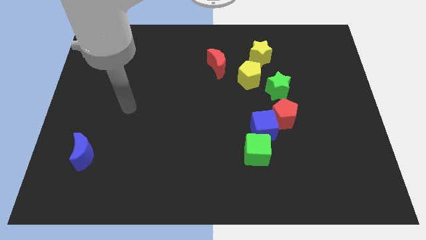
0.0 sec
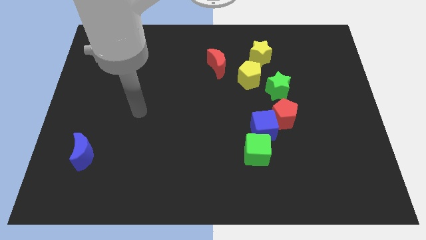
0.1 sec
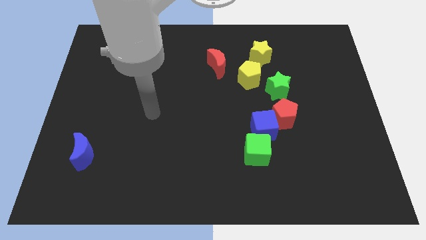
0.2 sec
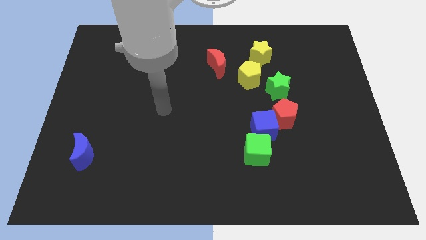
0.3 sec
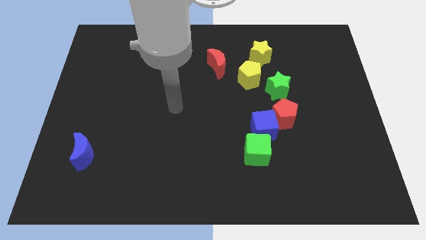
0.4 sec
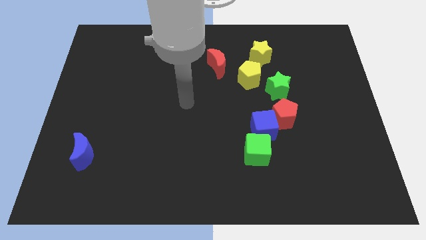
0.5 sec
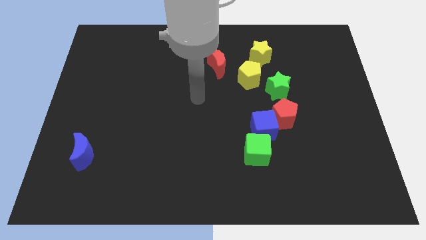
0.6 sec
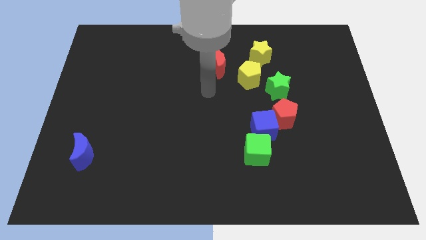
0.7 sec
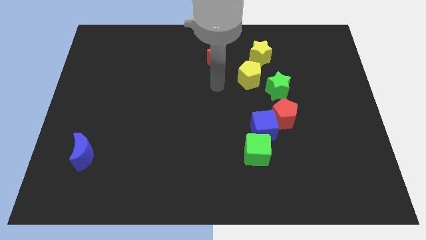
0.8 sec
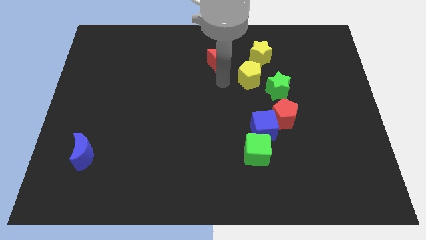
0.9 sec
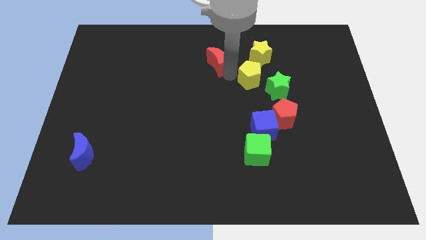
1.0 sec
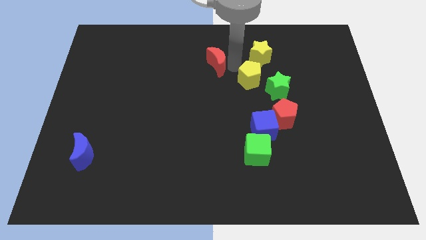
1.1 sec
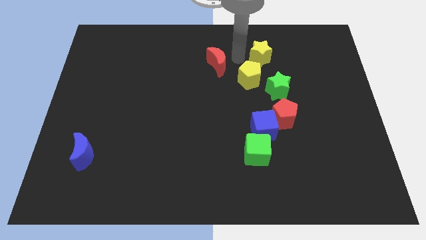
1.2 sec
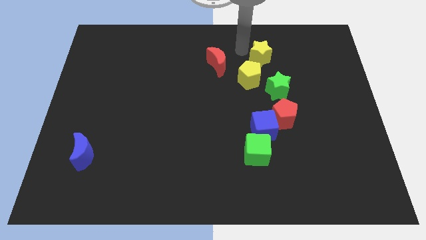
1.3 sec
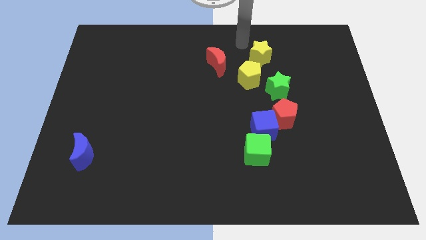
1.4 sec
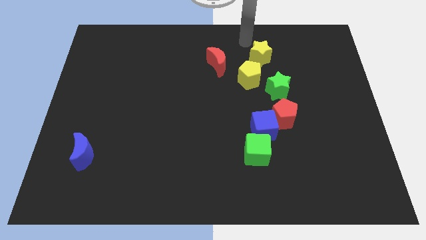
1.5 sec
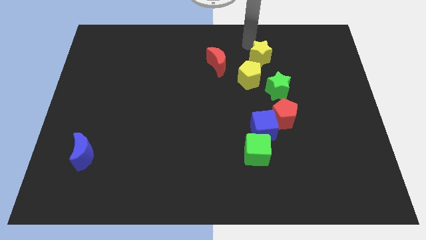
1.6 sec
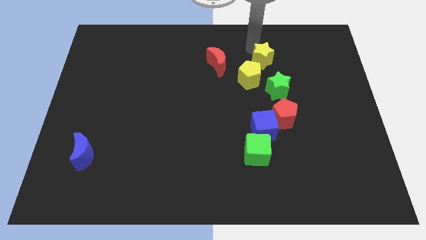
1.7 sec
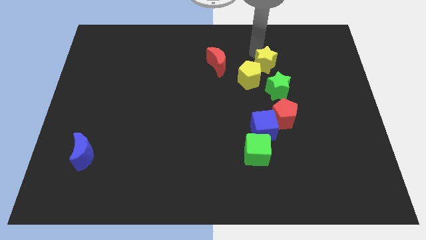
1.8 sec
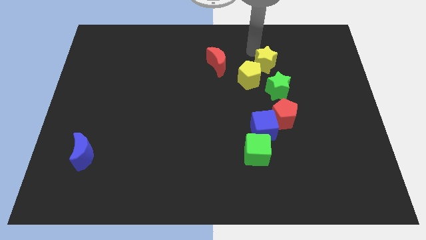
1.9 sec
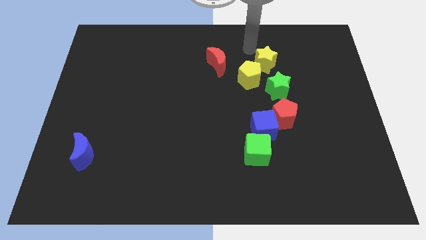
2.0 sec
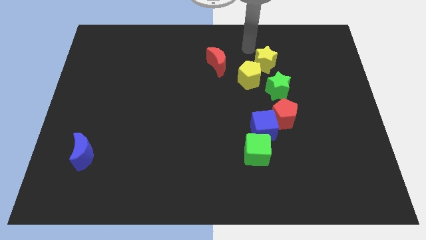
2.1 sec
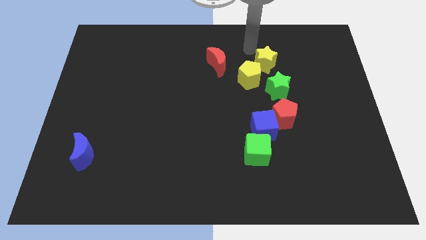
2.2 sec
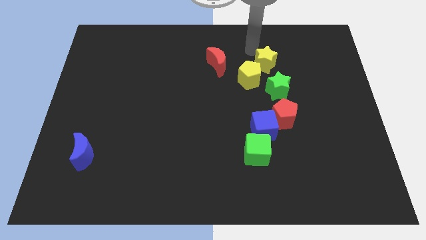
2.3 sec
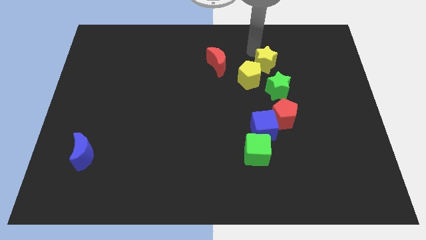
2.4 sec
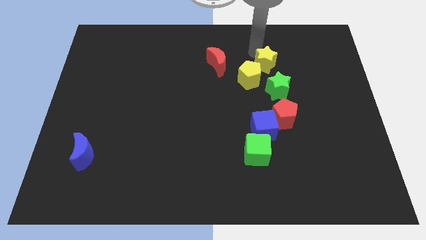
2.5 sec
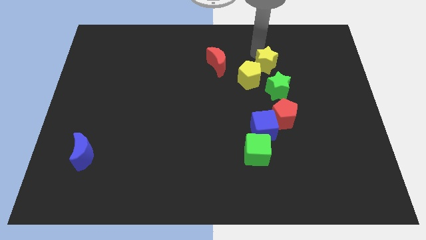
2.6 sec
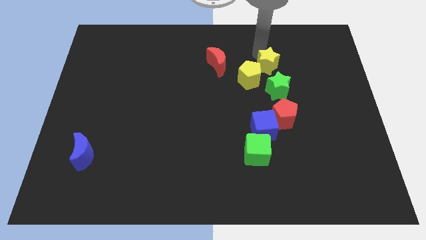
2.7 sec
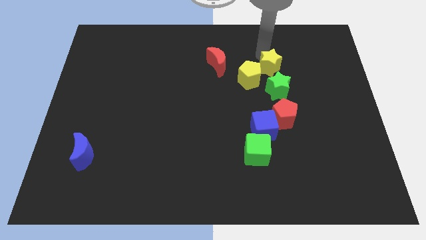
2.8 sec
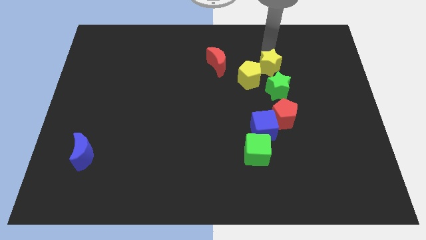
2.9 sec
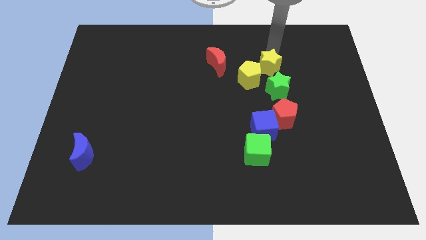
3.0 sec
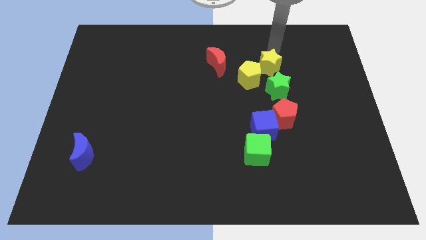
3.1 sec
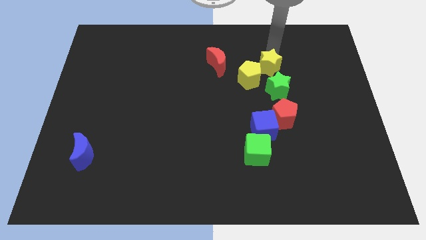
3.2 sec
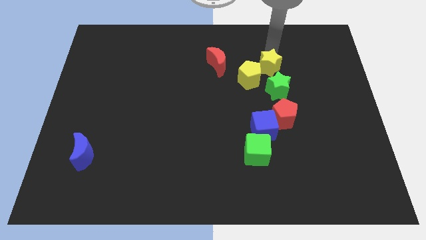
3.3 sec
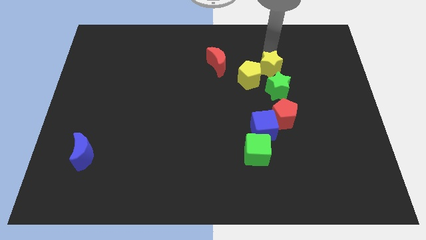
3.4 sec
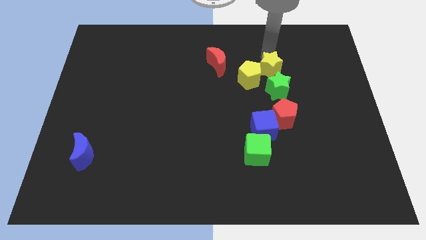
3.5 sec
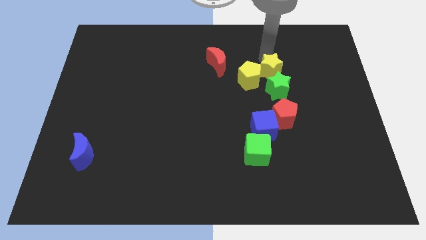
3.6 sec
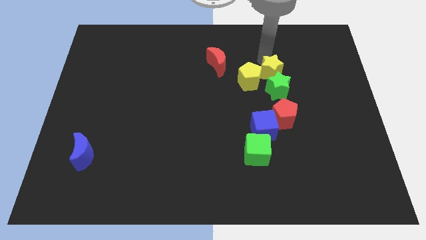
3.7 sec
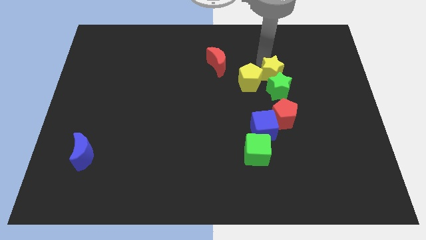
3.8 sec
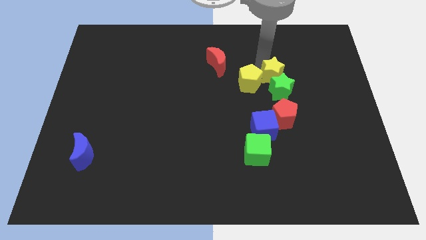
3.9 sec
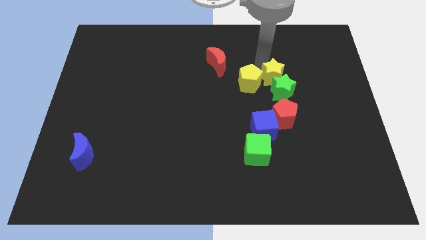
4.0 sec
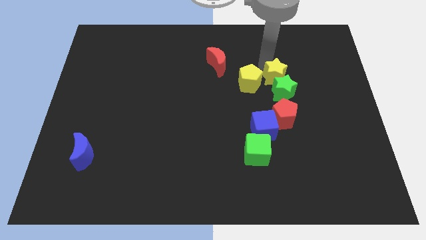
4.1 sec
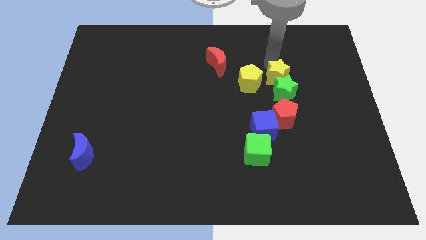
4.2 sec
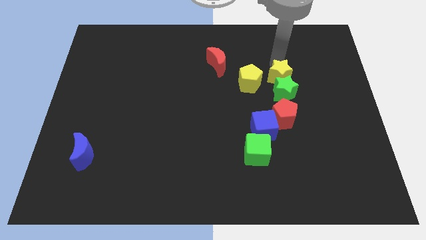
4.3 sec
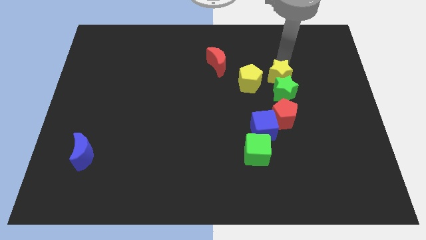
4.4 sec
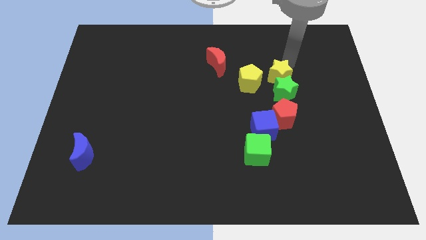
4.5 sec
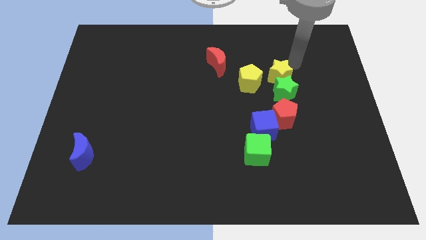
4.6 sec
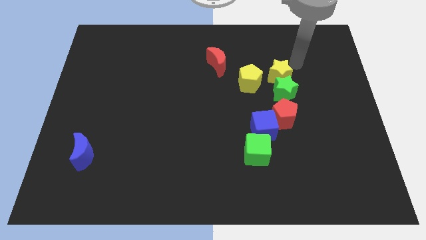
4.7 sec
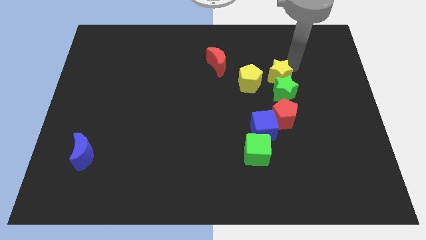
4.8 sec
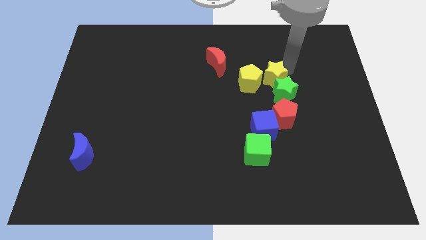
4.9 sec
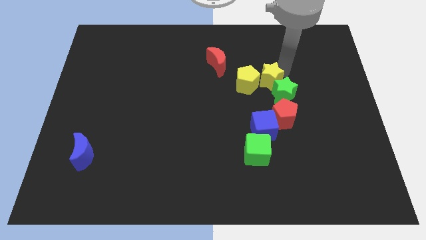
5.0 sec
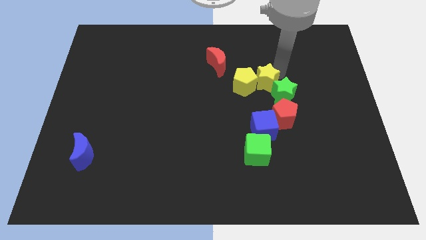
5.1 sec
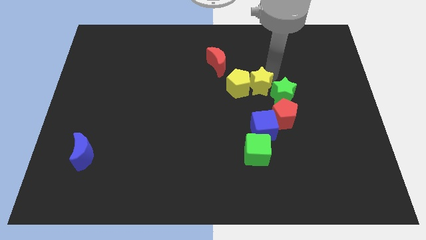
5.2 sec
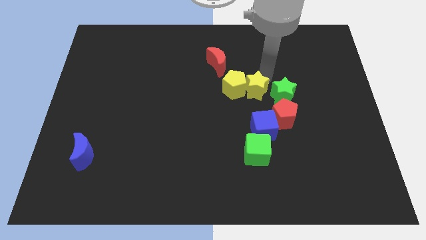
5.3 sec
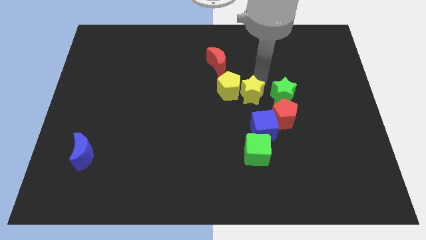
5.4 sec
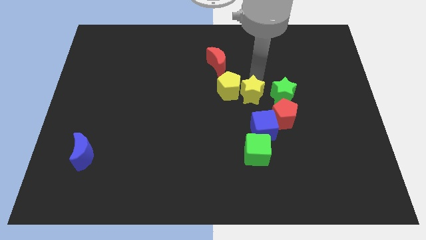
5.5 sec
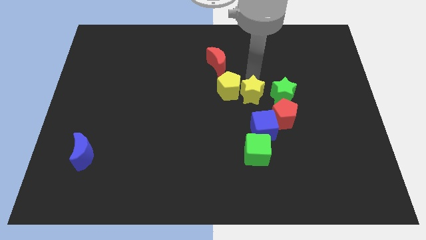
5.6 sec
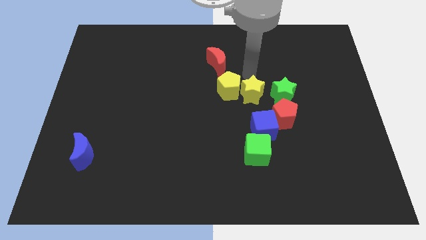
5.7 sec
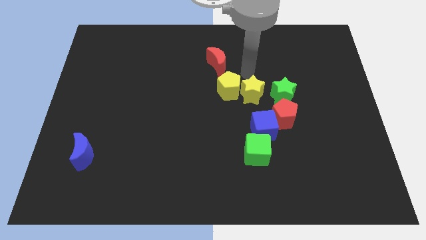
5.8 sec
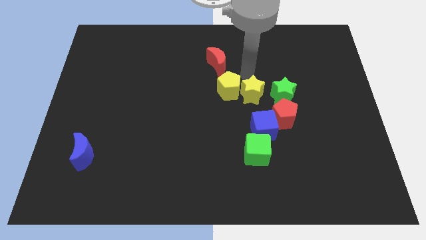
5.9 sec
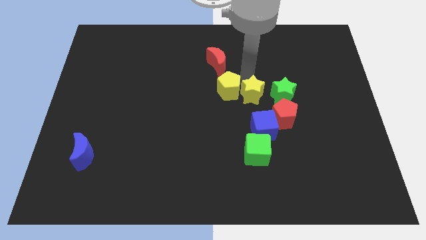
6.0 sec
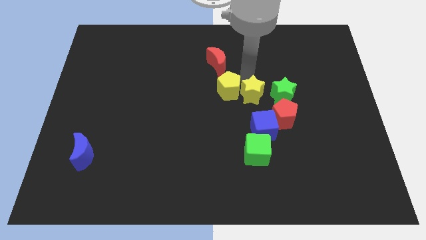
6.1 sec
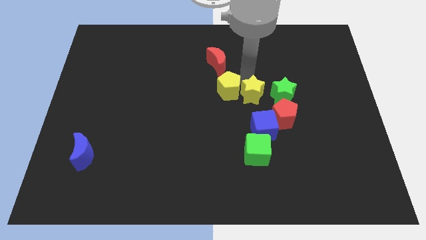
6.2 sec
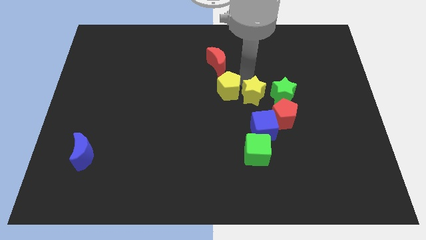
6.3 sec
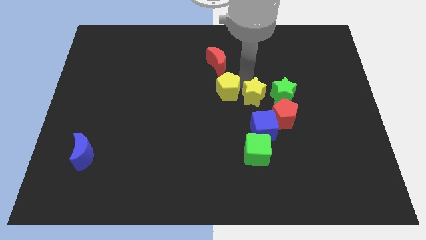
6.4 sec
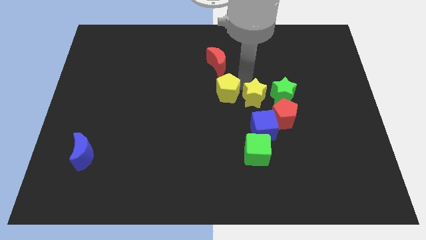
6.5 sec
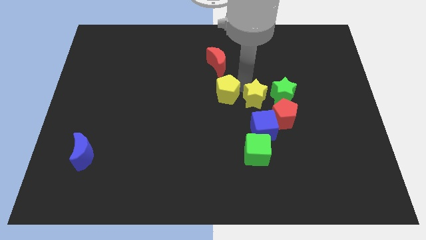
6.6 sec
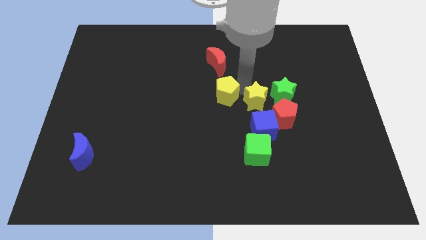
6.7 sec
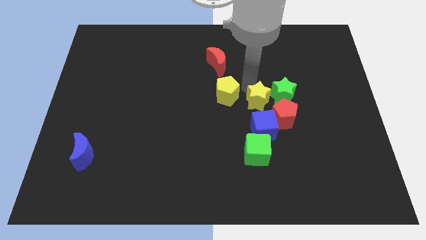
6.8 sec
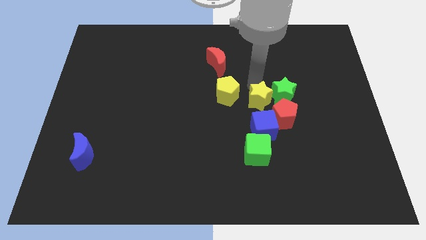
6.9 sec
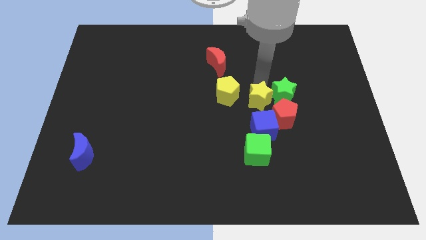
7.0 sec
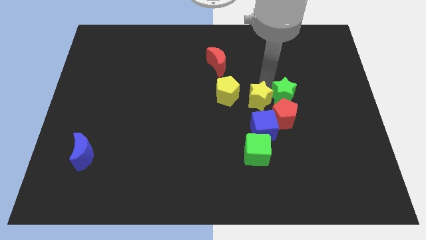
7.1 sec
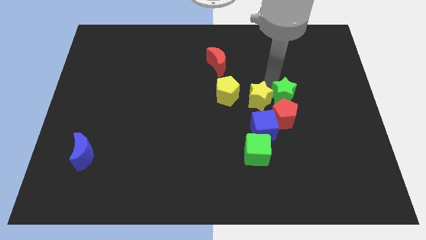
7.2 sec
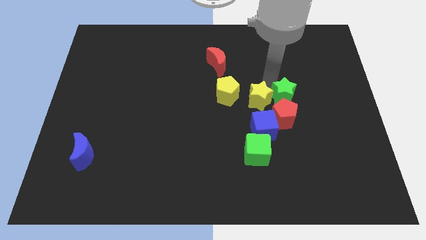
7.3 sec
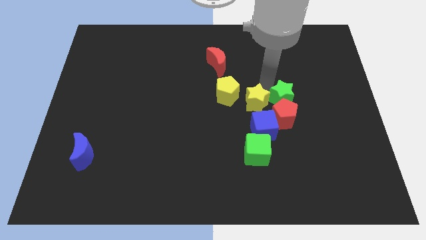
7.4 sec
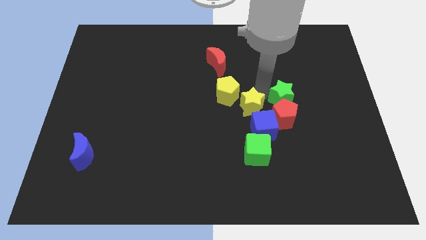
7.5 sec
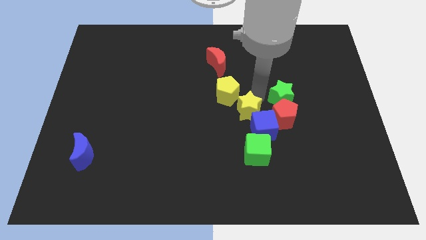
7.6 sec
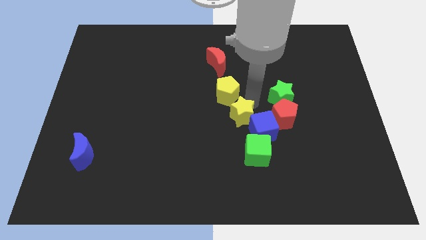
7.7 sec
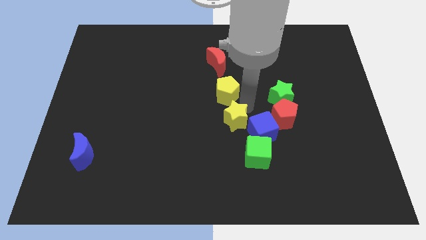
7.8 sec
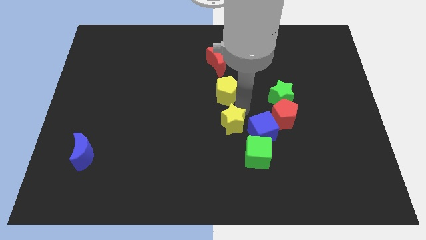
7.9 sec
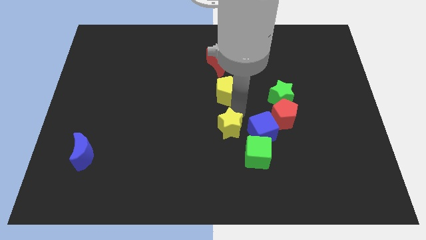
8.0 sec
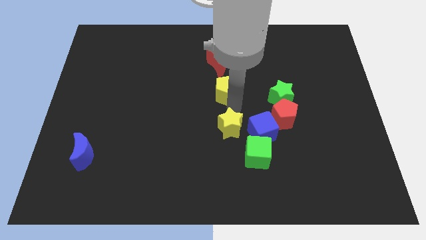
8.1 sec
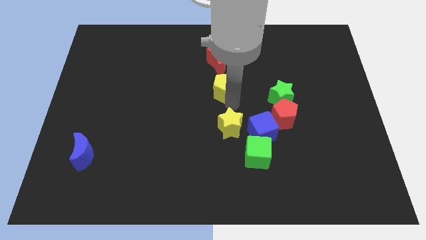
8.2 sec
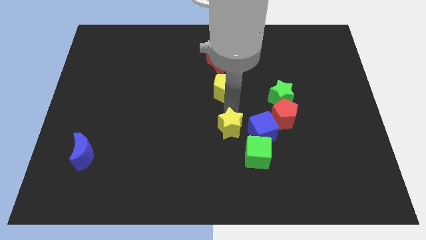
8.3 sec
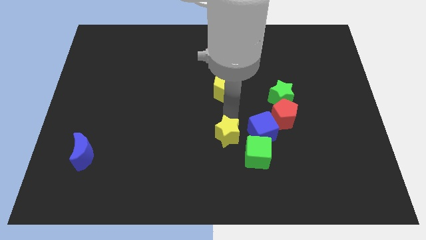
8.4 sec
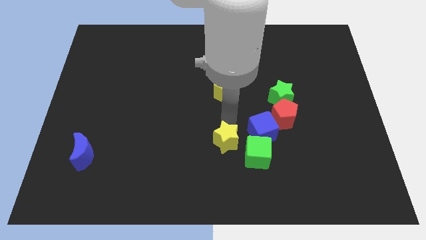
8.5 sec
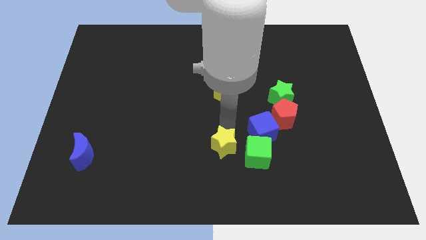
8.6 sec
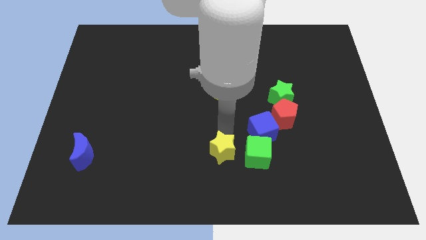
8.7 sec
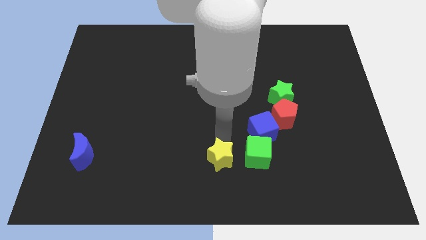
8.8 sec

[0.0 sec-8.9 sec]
push the yellow star to the bottom side
